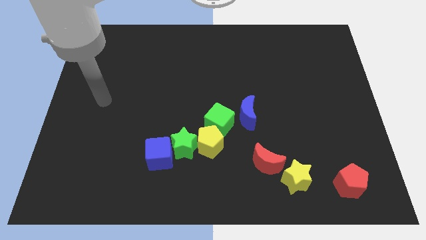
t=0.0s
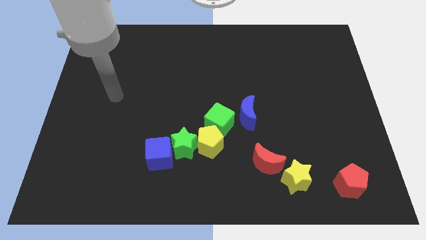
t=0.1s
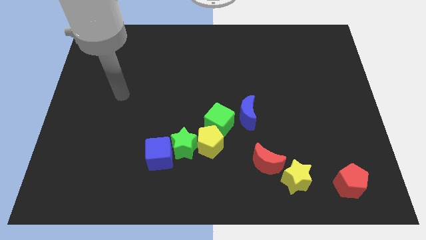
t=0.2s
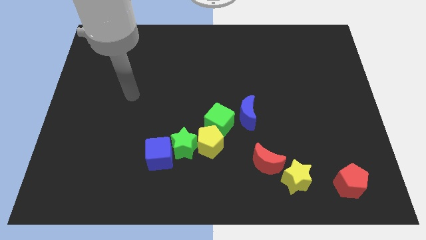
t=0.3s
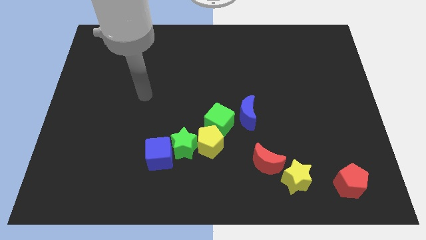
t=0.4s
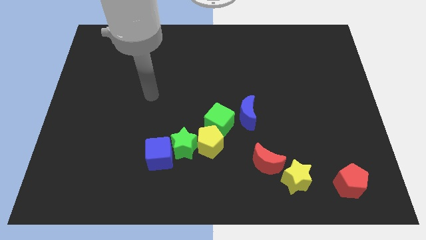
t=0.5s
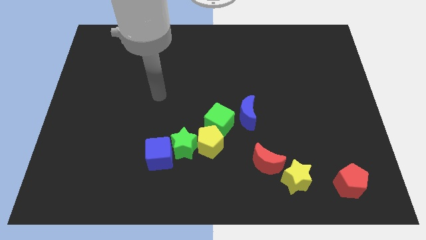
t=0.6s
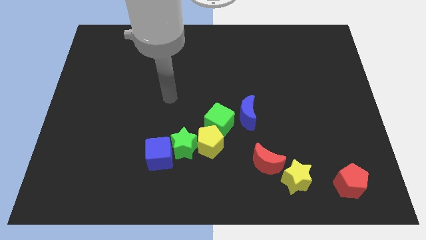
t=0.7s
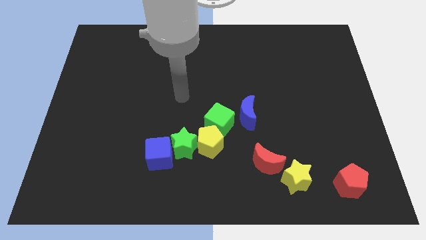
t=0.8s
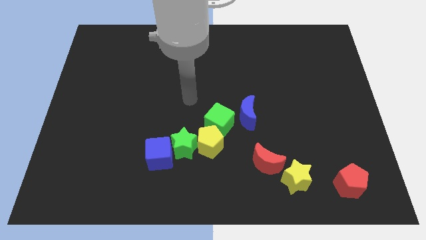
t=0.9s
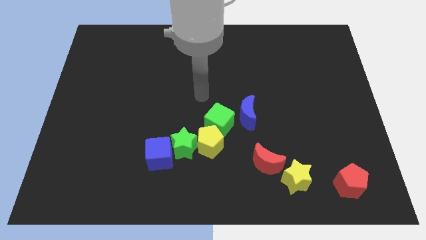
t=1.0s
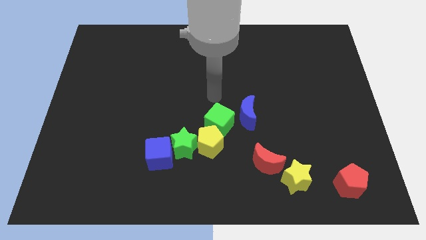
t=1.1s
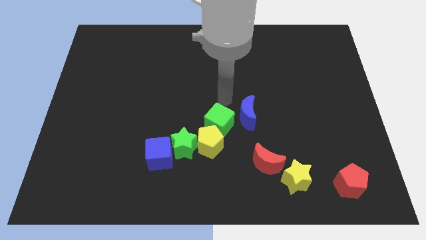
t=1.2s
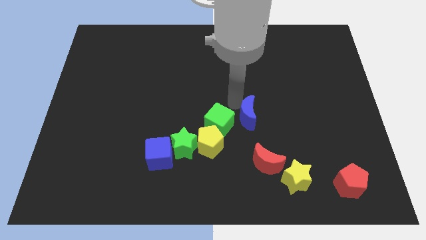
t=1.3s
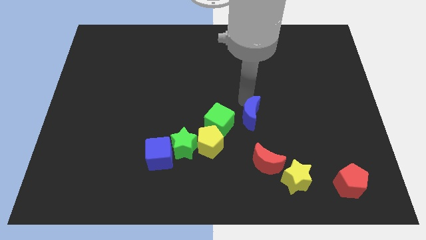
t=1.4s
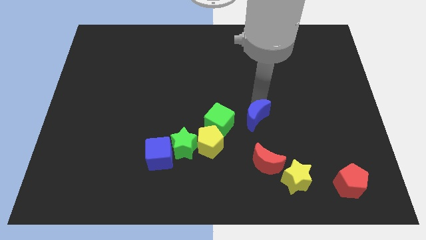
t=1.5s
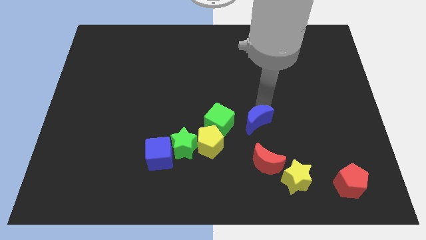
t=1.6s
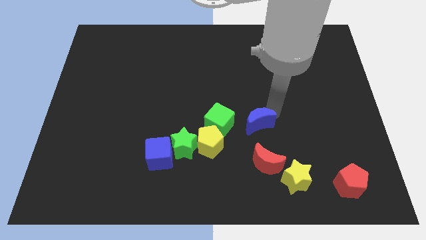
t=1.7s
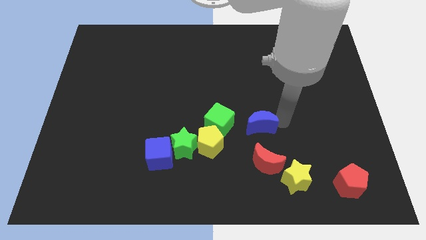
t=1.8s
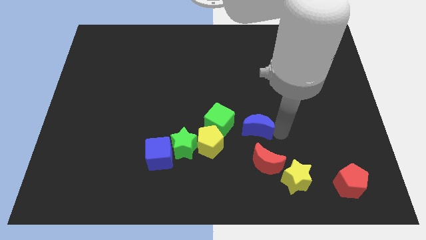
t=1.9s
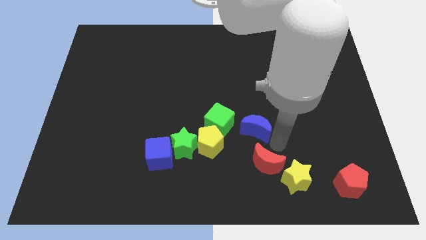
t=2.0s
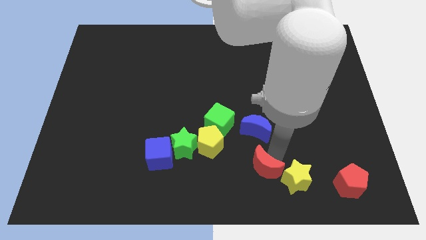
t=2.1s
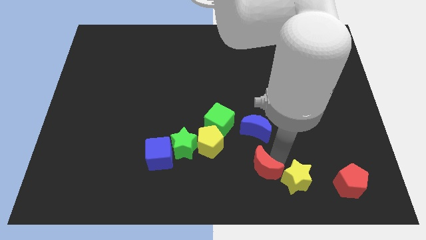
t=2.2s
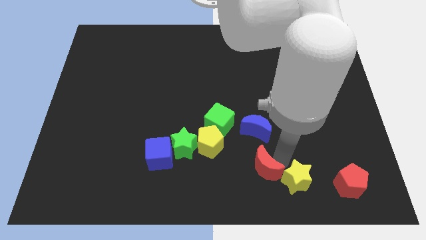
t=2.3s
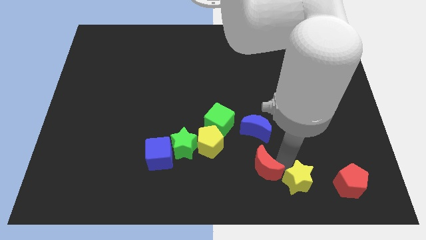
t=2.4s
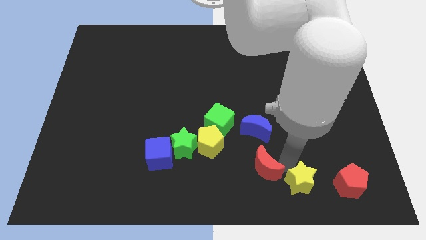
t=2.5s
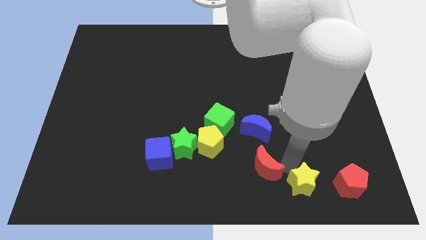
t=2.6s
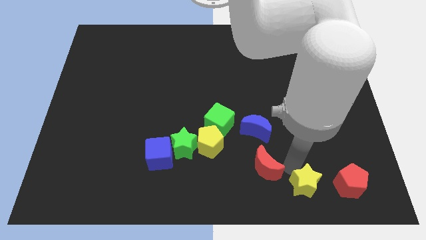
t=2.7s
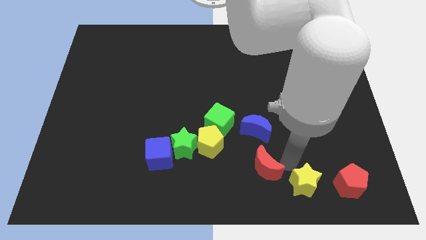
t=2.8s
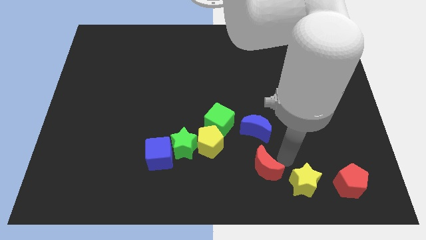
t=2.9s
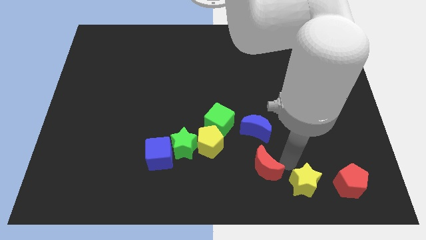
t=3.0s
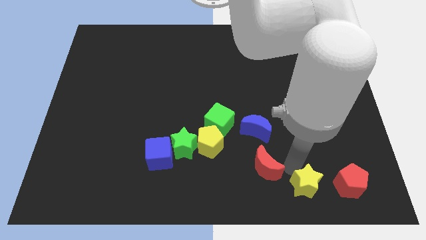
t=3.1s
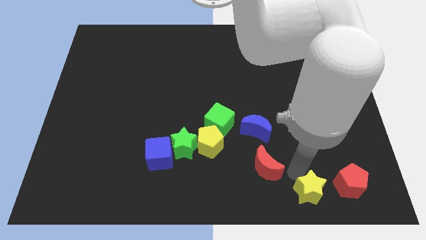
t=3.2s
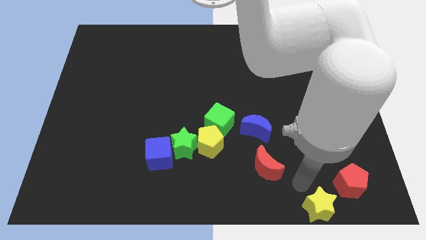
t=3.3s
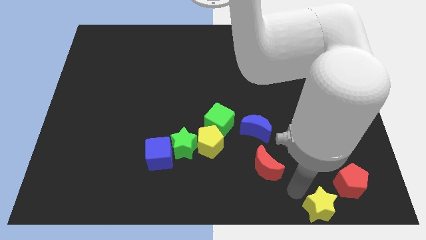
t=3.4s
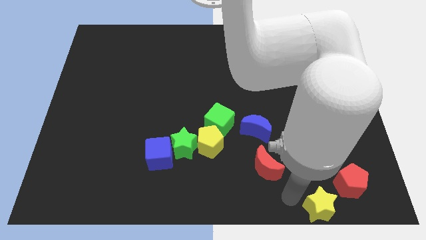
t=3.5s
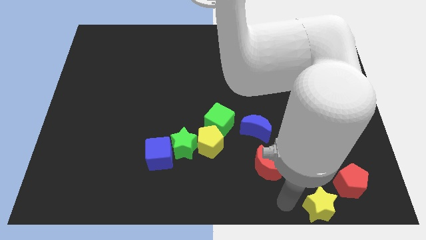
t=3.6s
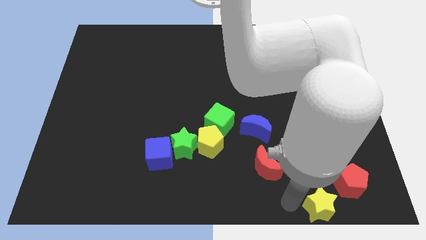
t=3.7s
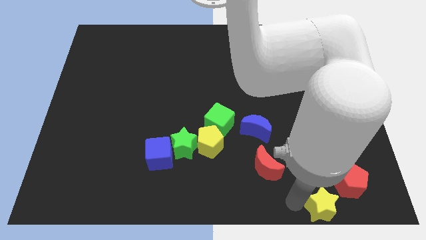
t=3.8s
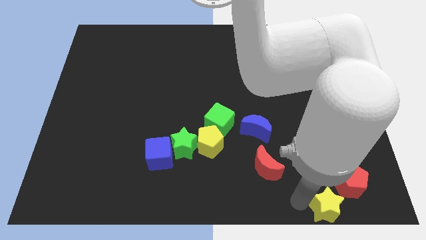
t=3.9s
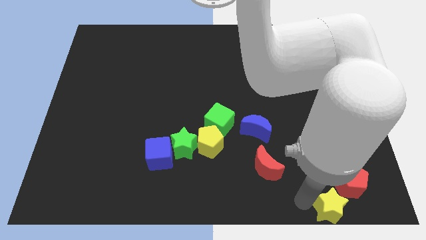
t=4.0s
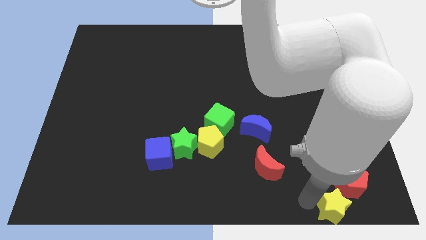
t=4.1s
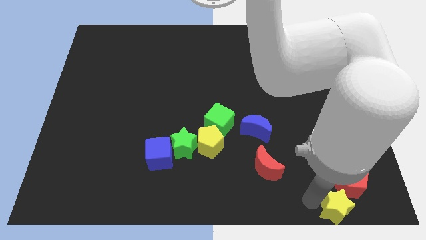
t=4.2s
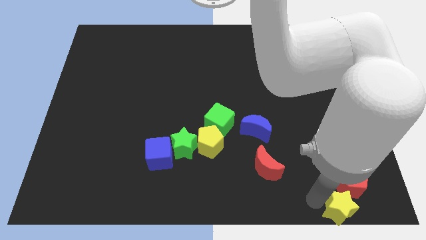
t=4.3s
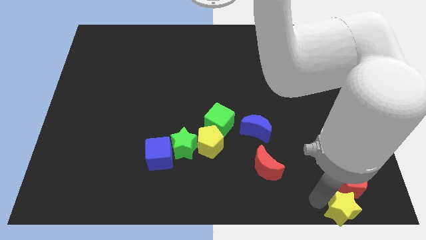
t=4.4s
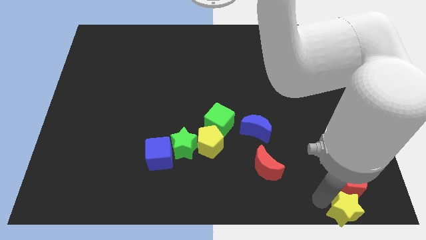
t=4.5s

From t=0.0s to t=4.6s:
move the yellow star to the bottom right of the board

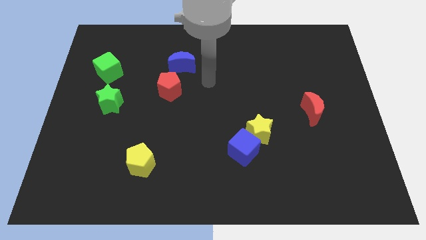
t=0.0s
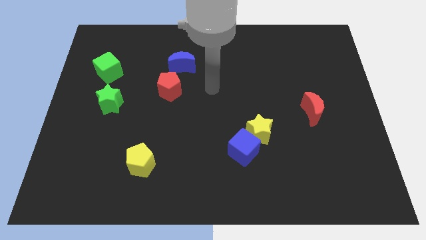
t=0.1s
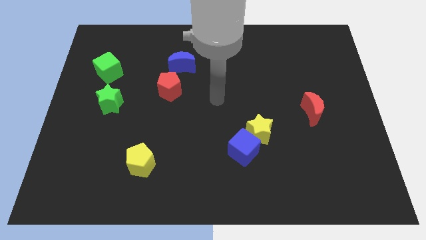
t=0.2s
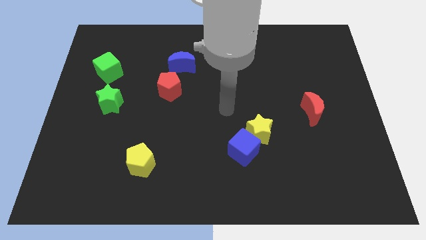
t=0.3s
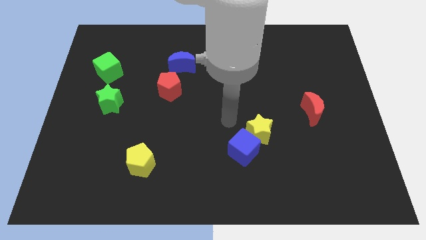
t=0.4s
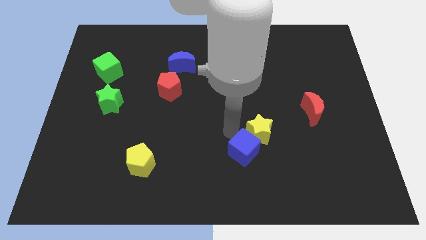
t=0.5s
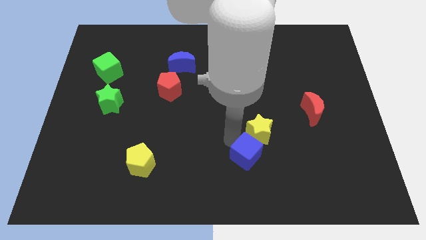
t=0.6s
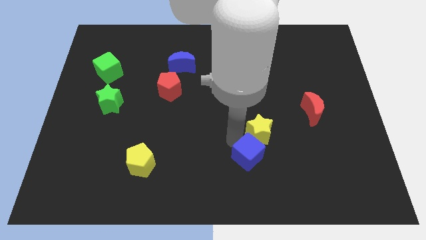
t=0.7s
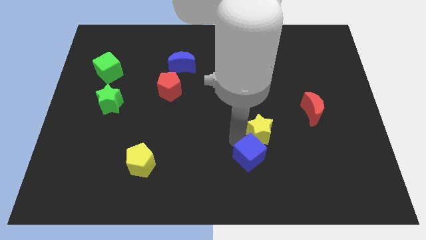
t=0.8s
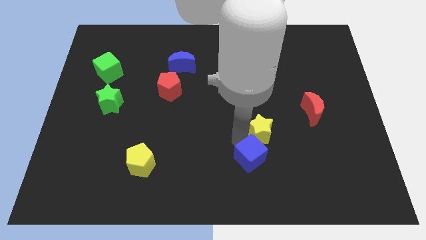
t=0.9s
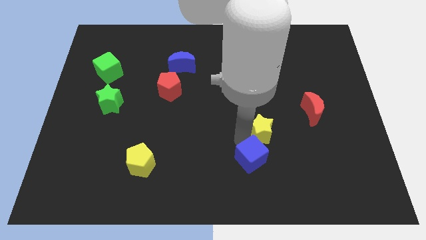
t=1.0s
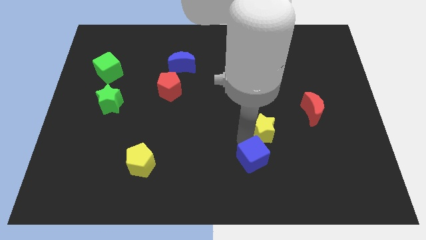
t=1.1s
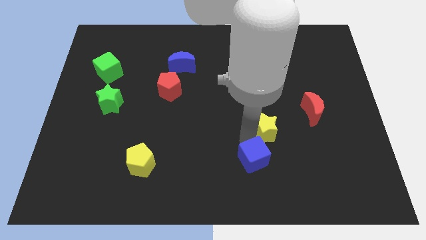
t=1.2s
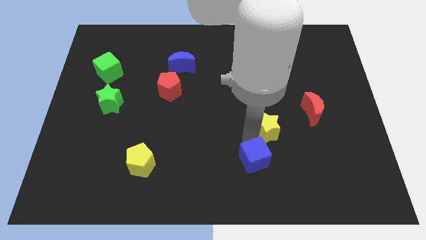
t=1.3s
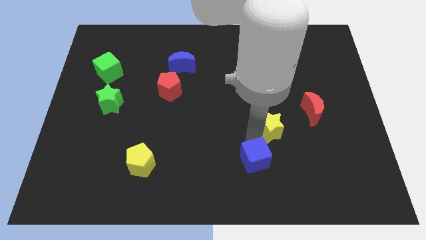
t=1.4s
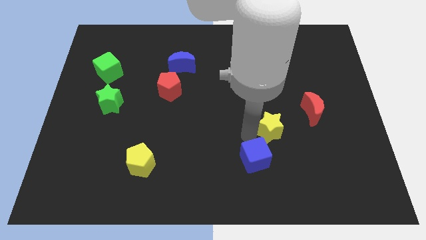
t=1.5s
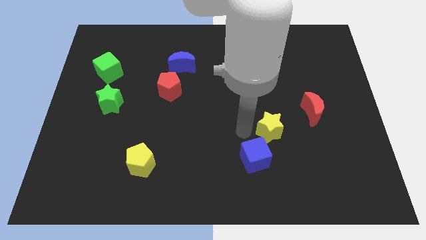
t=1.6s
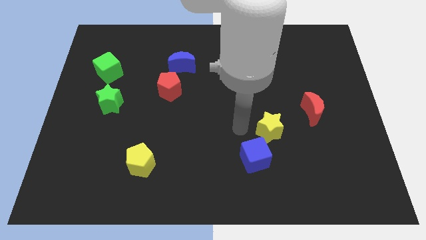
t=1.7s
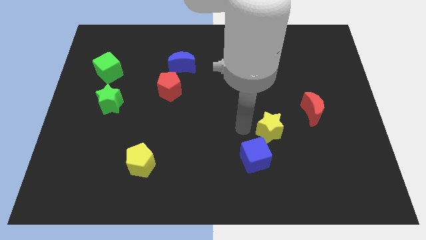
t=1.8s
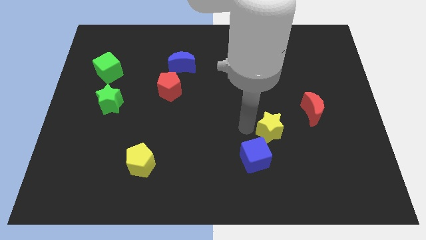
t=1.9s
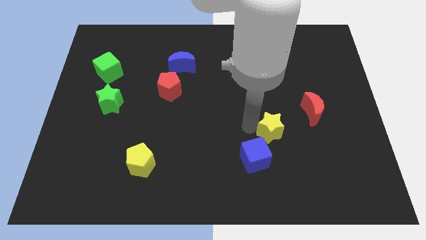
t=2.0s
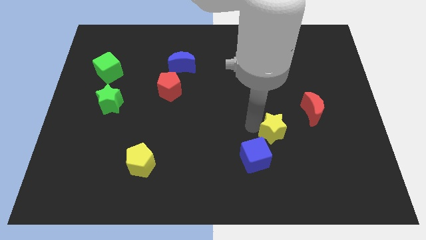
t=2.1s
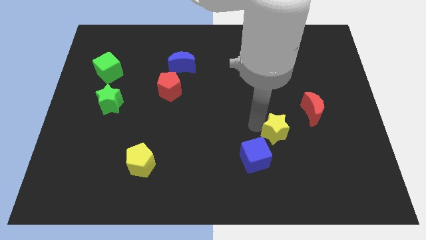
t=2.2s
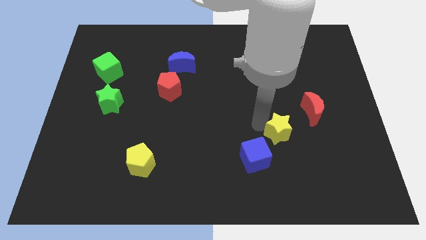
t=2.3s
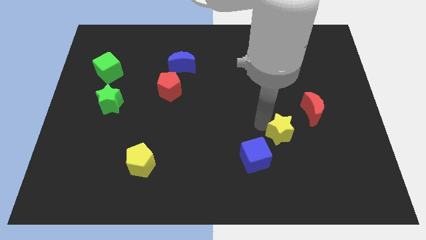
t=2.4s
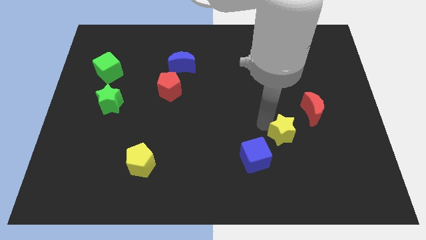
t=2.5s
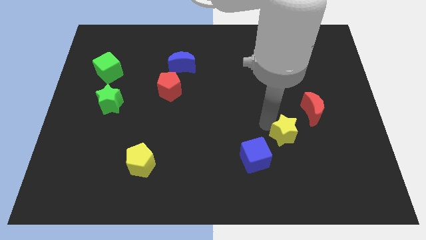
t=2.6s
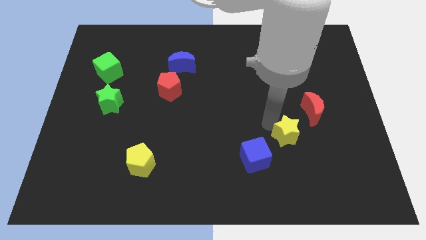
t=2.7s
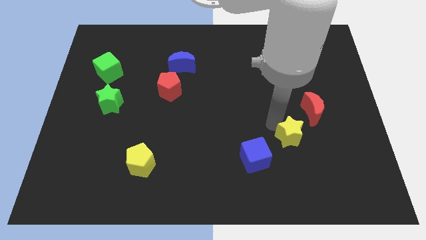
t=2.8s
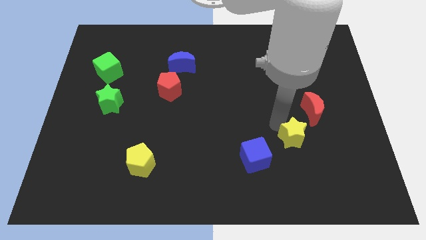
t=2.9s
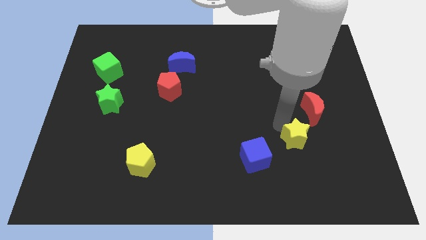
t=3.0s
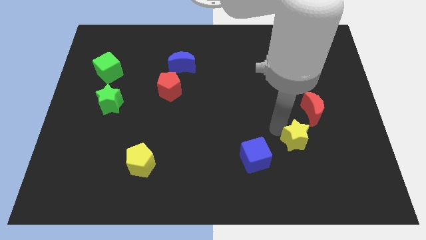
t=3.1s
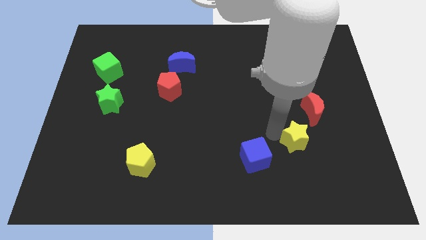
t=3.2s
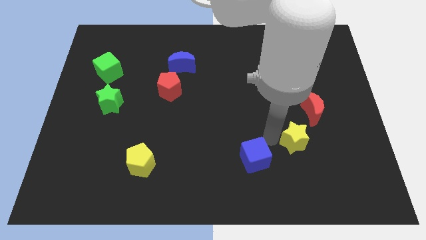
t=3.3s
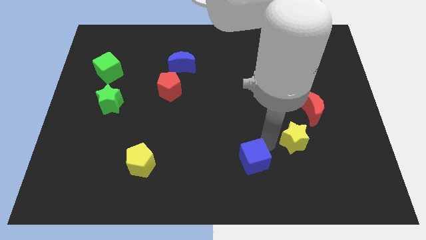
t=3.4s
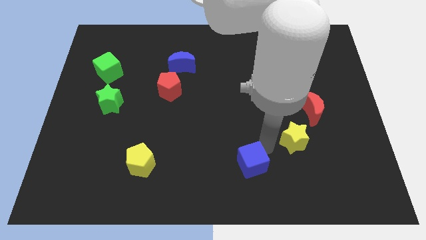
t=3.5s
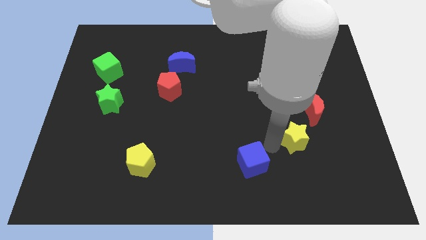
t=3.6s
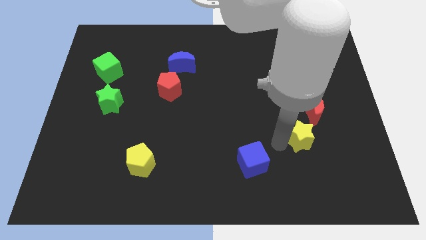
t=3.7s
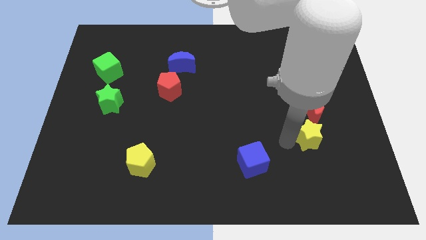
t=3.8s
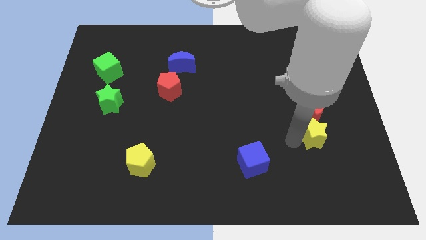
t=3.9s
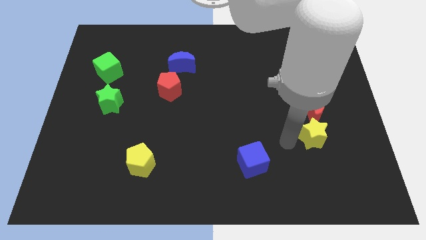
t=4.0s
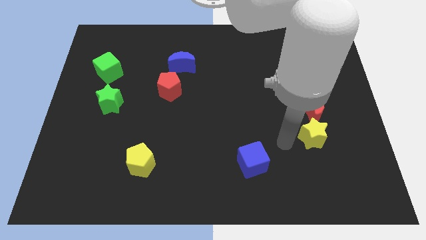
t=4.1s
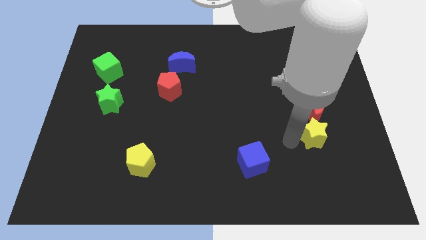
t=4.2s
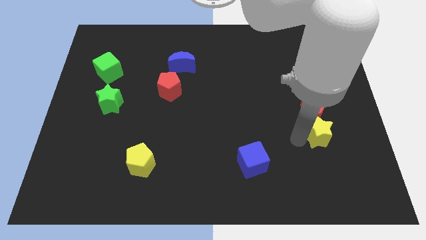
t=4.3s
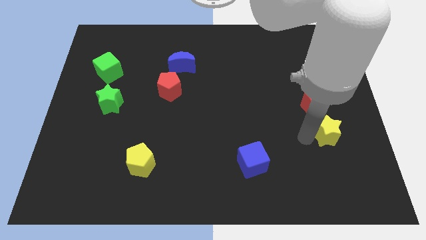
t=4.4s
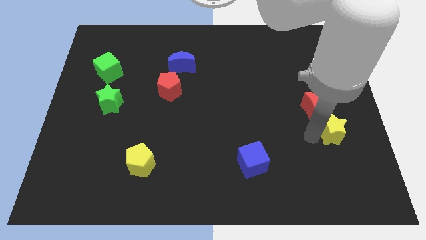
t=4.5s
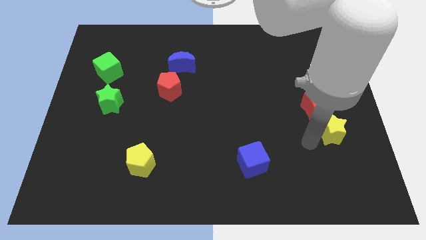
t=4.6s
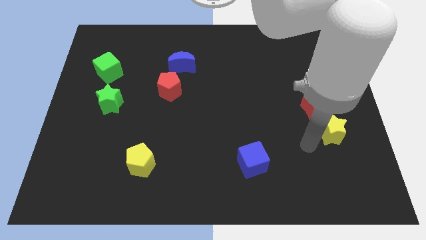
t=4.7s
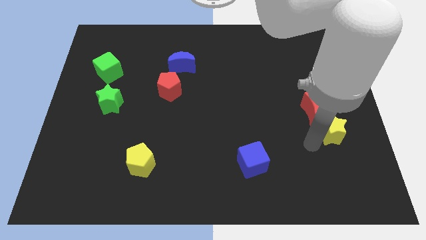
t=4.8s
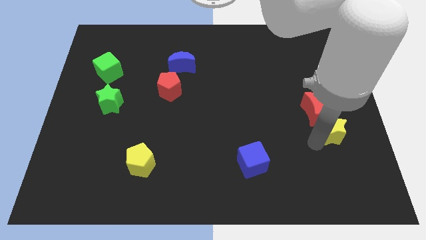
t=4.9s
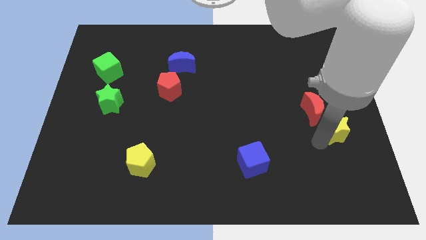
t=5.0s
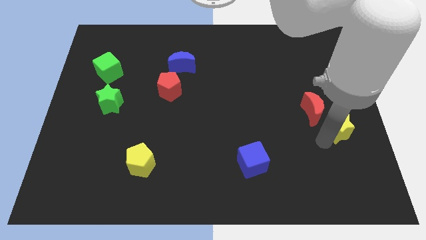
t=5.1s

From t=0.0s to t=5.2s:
move the yellow star to the center right
